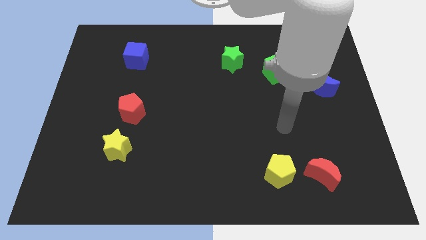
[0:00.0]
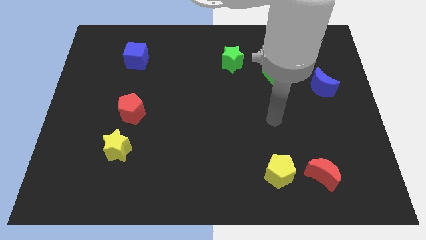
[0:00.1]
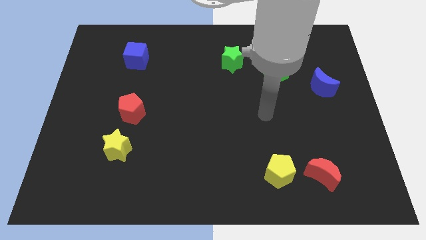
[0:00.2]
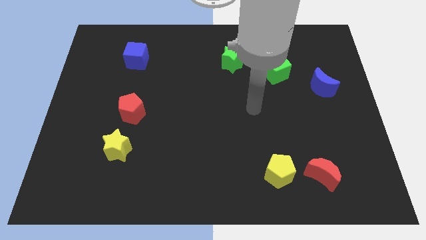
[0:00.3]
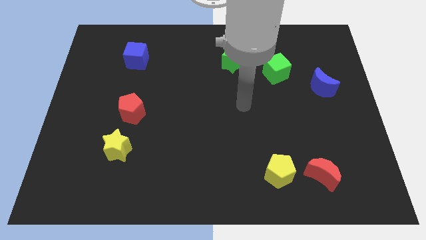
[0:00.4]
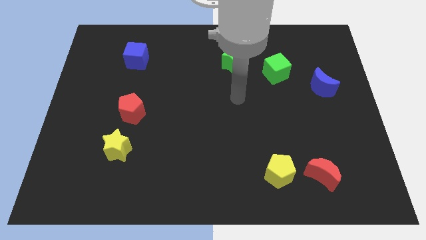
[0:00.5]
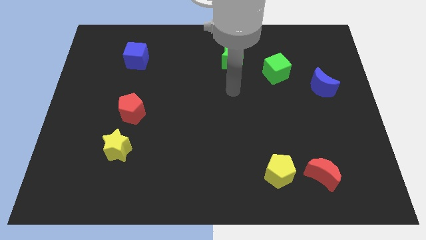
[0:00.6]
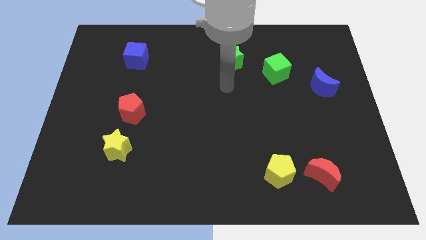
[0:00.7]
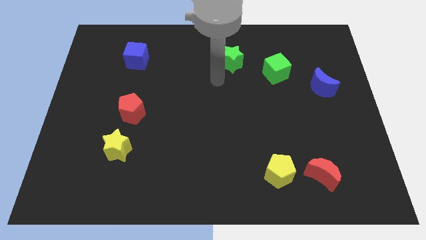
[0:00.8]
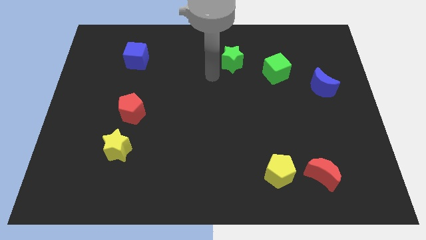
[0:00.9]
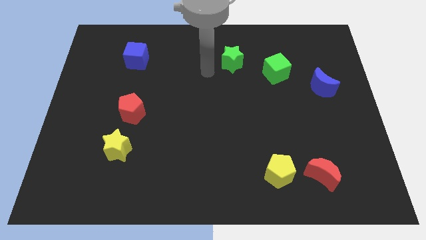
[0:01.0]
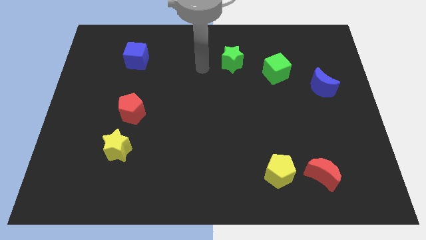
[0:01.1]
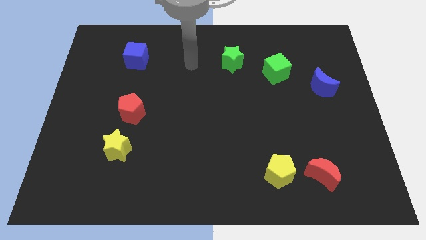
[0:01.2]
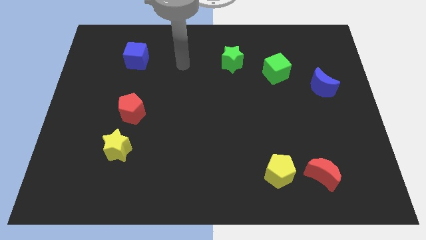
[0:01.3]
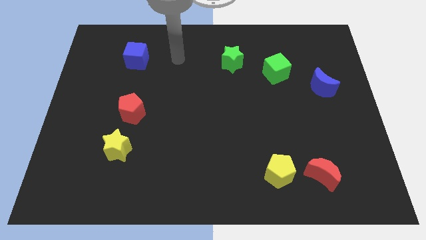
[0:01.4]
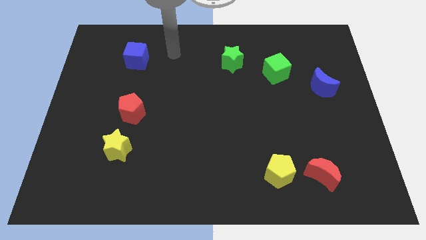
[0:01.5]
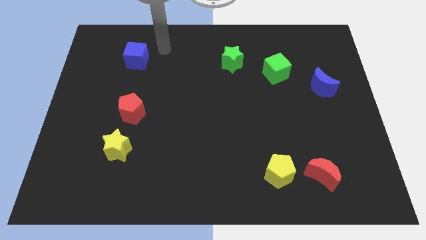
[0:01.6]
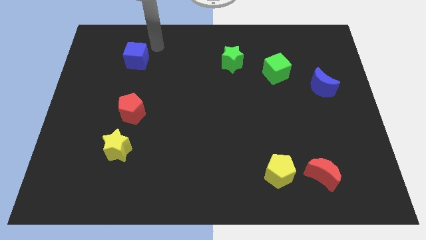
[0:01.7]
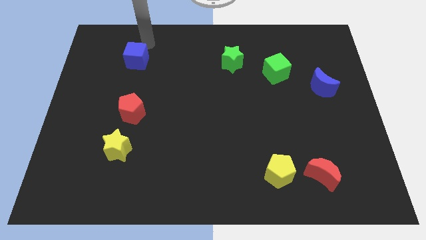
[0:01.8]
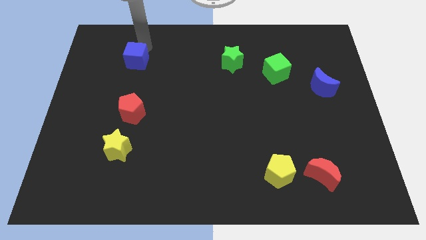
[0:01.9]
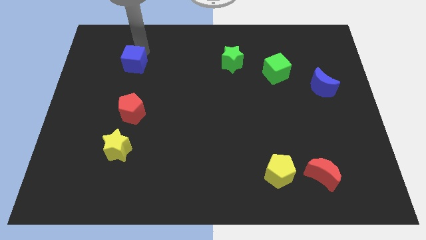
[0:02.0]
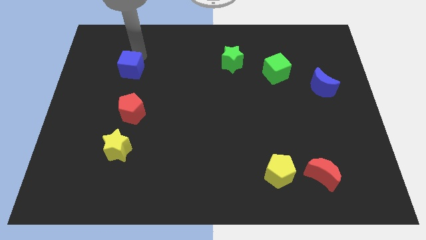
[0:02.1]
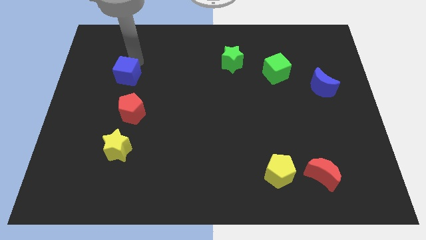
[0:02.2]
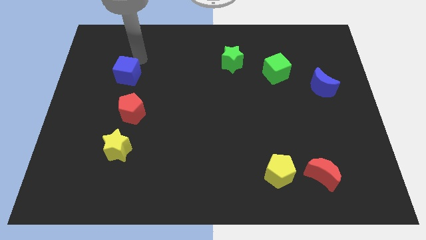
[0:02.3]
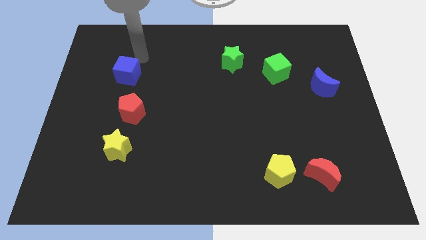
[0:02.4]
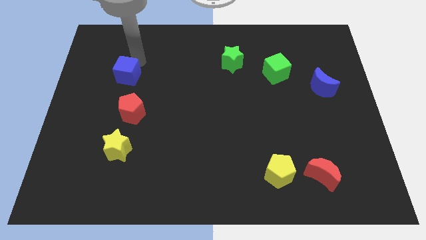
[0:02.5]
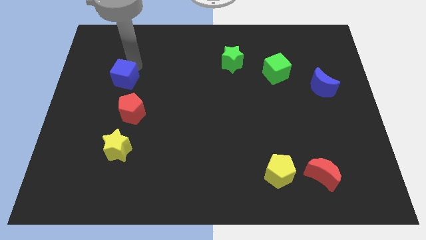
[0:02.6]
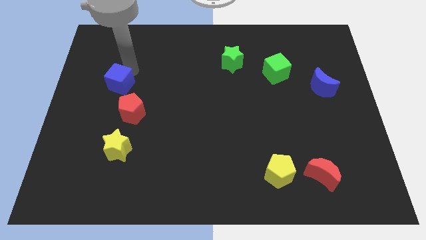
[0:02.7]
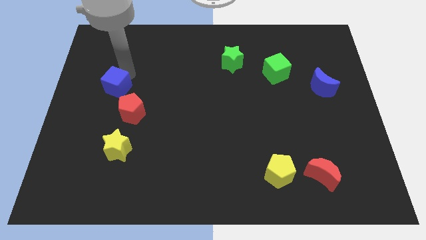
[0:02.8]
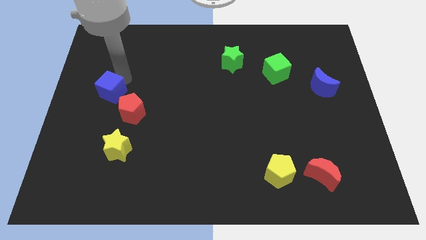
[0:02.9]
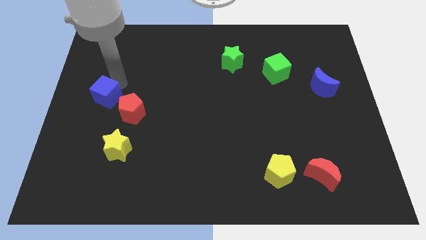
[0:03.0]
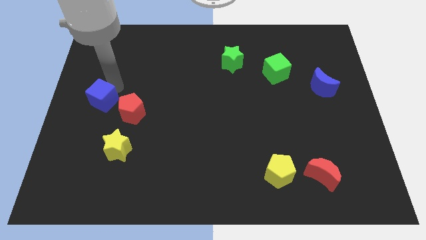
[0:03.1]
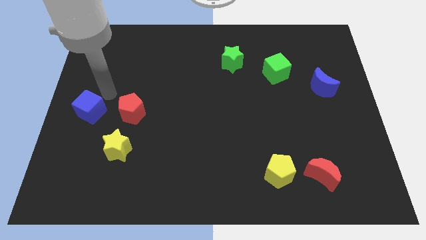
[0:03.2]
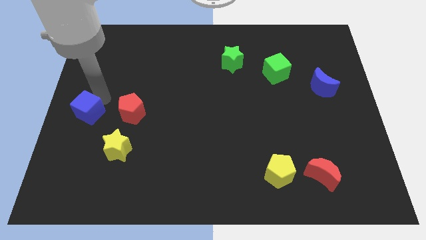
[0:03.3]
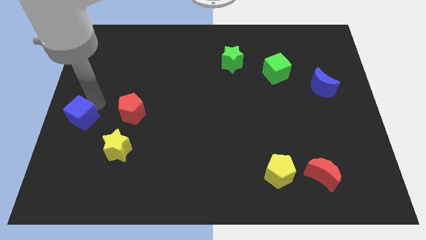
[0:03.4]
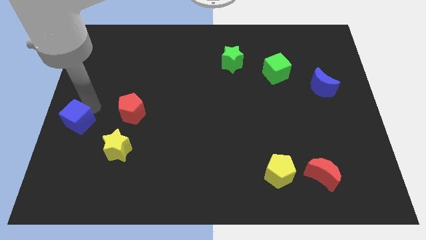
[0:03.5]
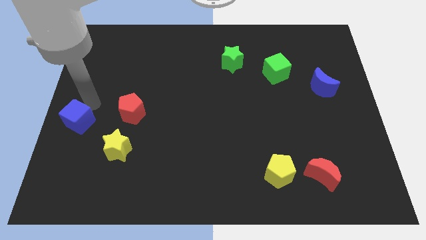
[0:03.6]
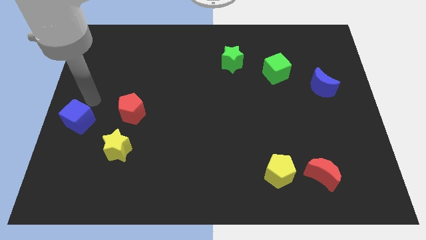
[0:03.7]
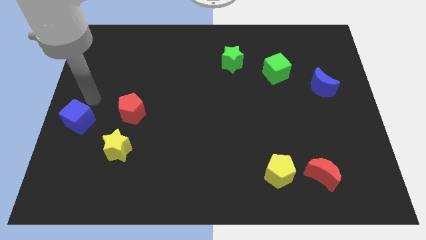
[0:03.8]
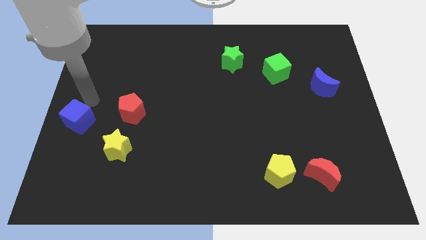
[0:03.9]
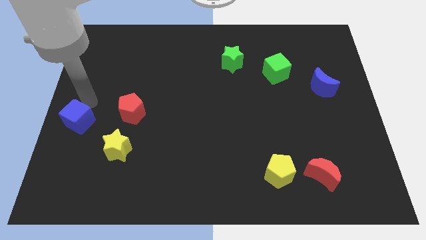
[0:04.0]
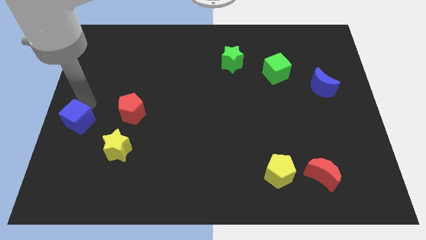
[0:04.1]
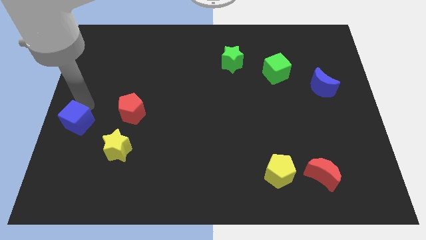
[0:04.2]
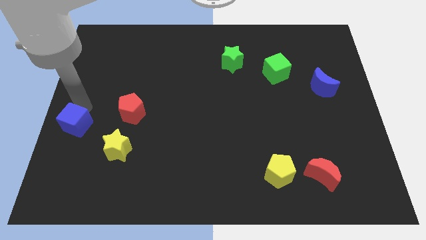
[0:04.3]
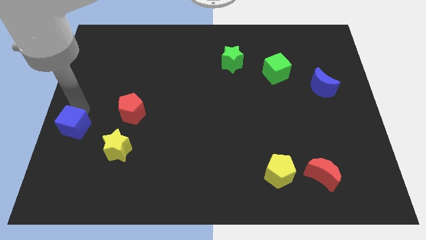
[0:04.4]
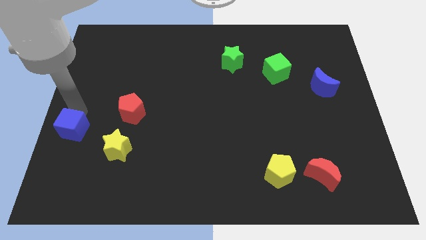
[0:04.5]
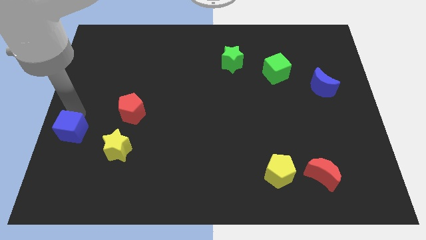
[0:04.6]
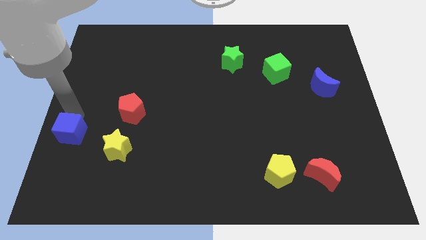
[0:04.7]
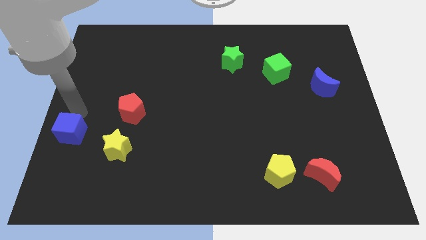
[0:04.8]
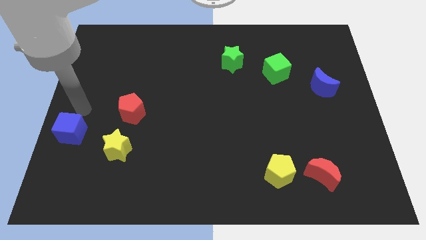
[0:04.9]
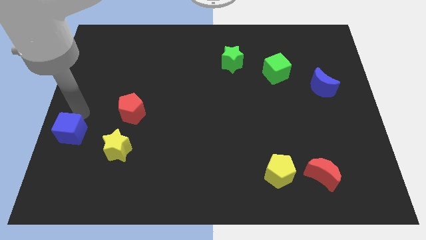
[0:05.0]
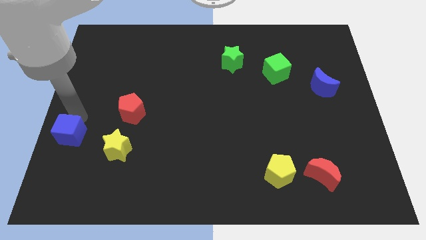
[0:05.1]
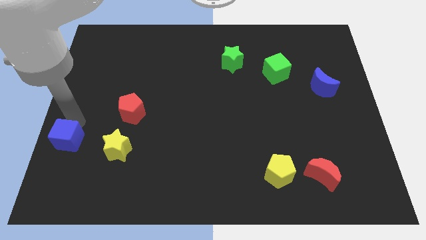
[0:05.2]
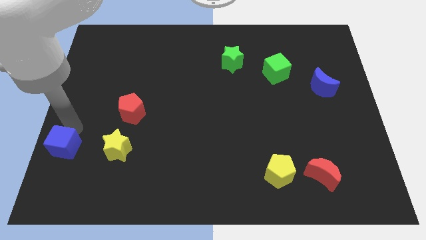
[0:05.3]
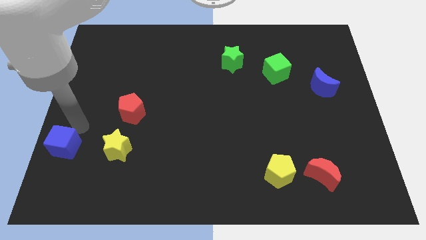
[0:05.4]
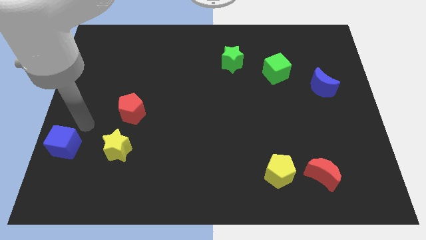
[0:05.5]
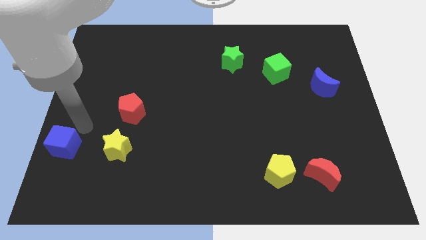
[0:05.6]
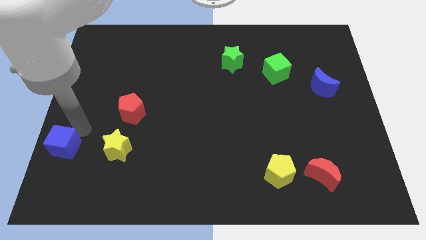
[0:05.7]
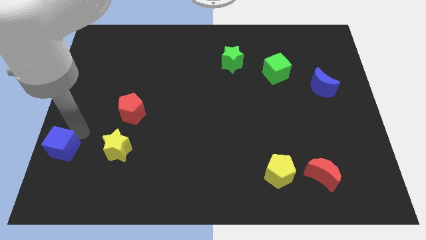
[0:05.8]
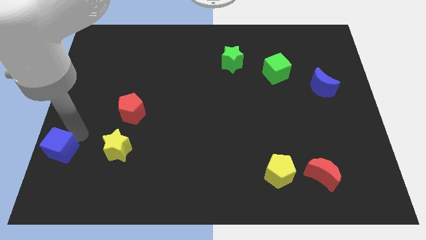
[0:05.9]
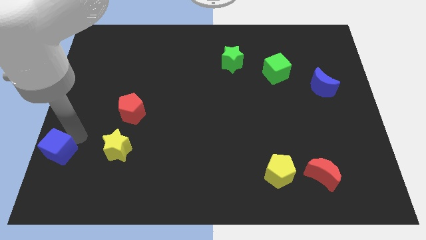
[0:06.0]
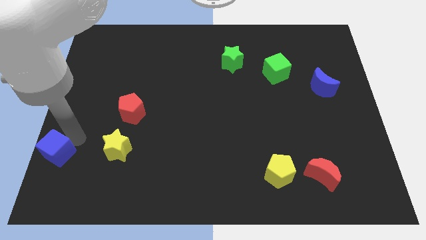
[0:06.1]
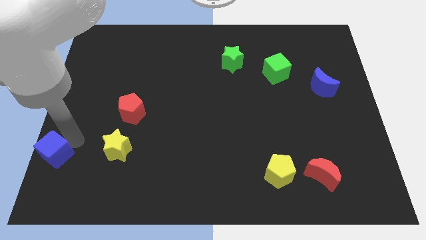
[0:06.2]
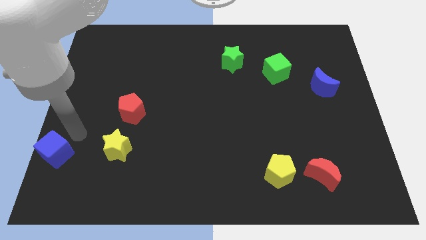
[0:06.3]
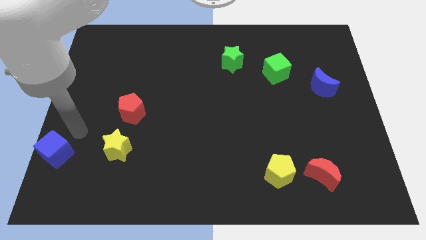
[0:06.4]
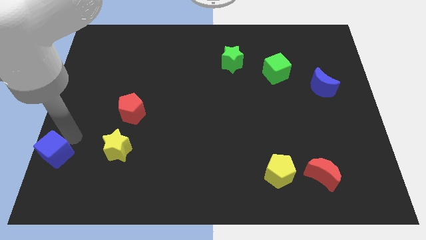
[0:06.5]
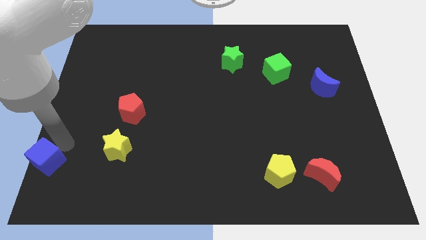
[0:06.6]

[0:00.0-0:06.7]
push the blue cube to the bottom left corner
